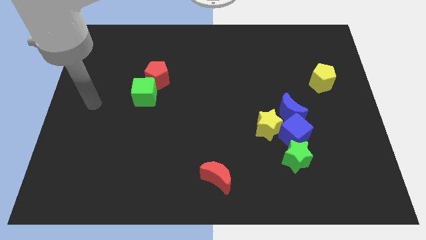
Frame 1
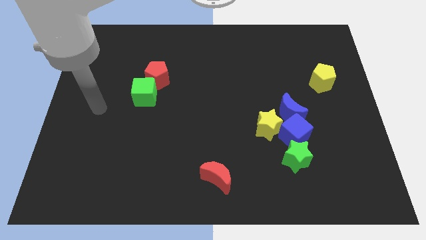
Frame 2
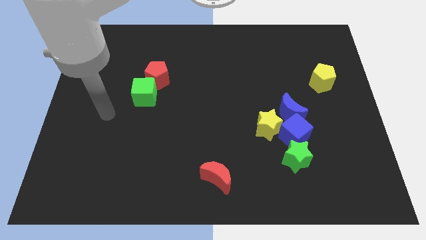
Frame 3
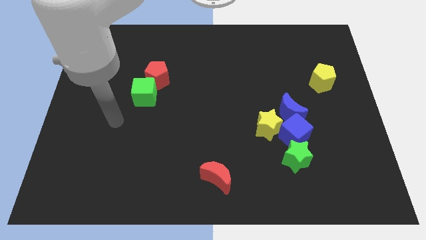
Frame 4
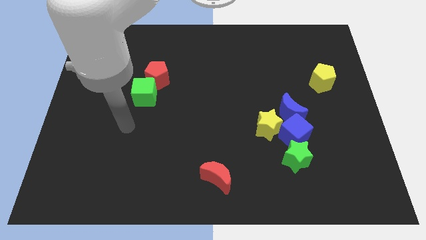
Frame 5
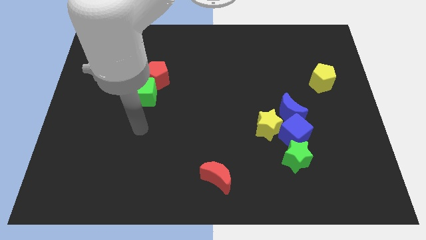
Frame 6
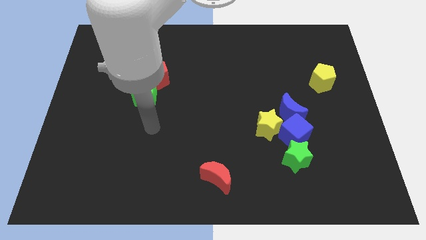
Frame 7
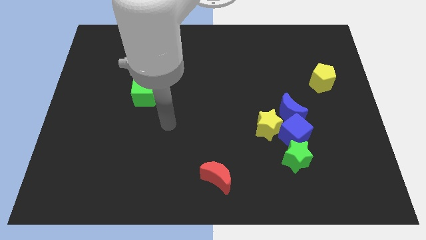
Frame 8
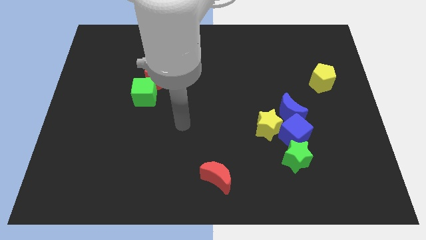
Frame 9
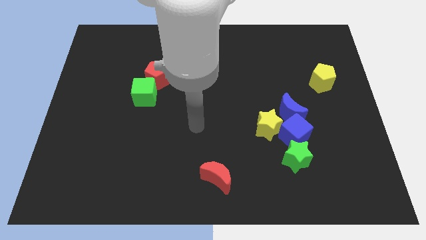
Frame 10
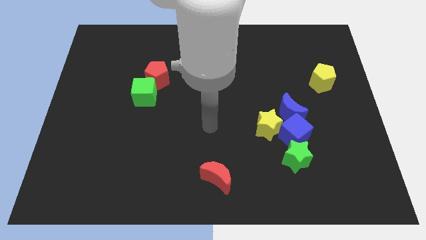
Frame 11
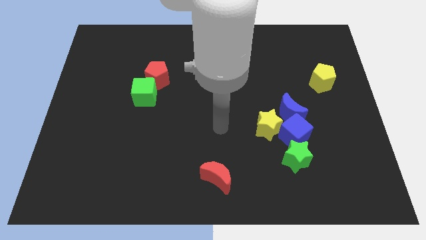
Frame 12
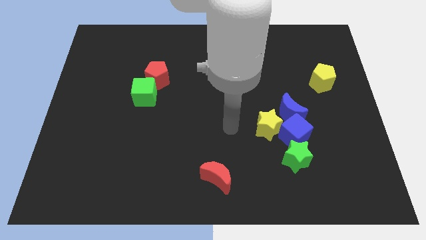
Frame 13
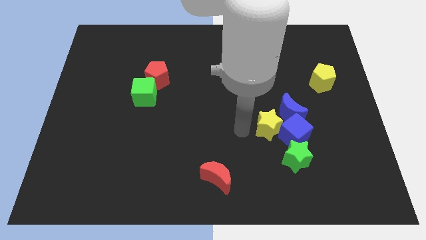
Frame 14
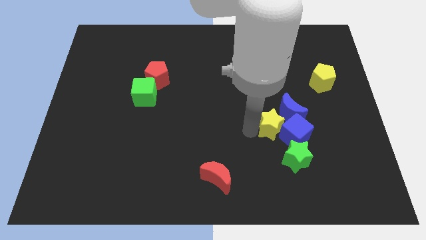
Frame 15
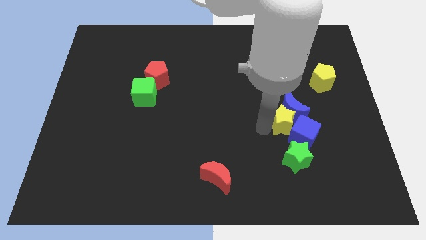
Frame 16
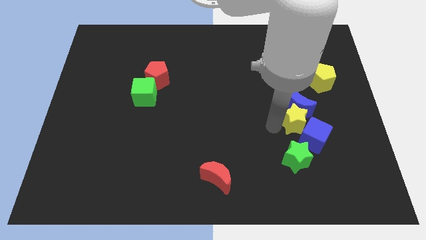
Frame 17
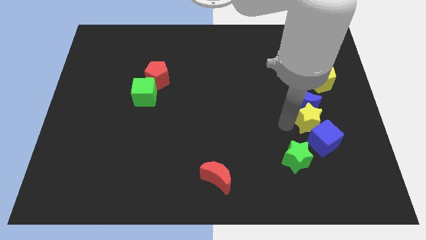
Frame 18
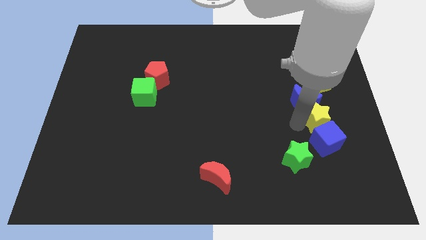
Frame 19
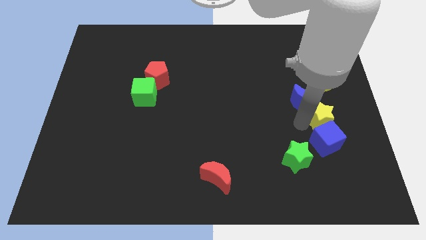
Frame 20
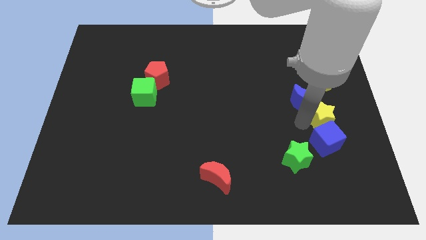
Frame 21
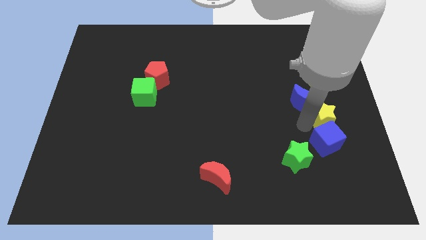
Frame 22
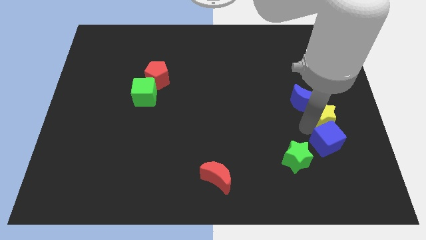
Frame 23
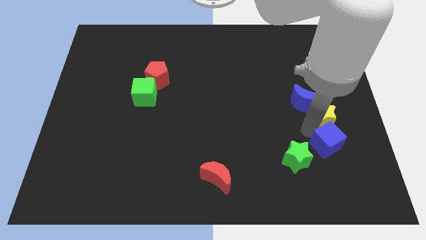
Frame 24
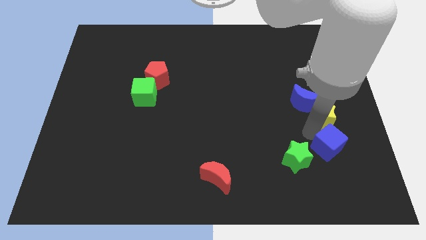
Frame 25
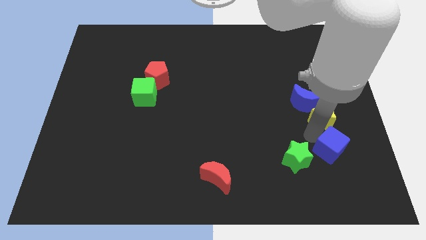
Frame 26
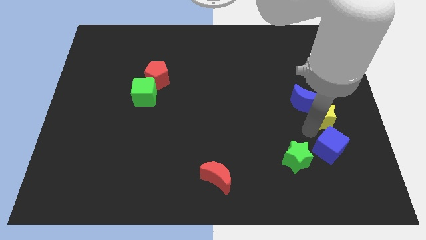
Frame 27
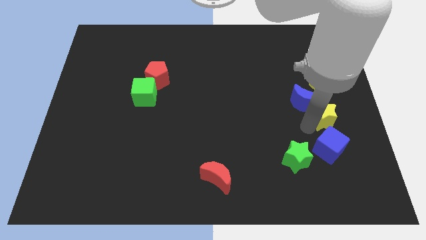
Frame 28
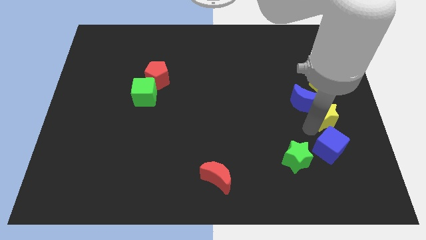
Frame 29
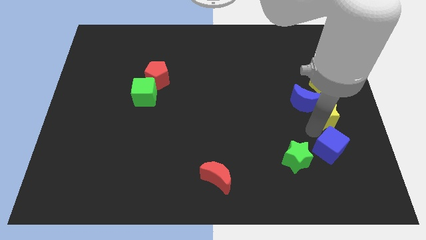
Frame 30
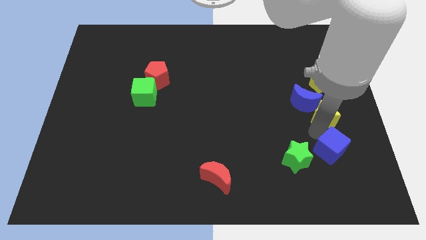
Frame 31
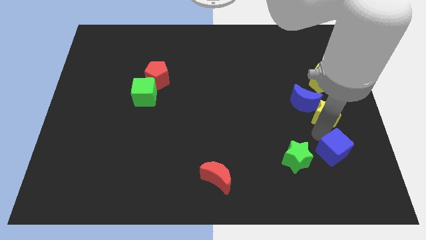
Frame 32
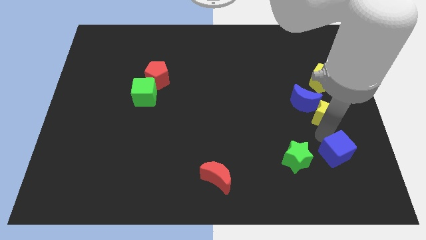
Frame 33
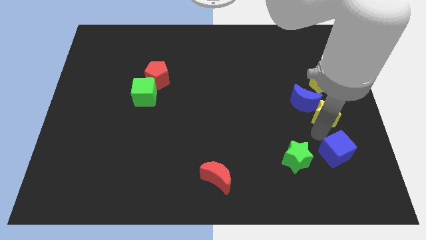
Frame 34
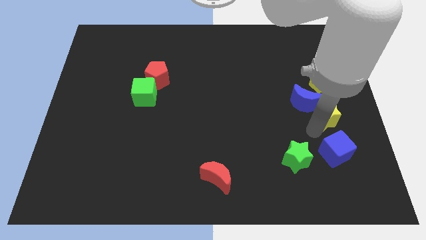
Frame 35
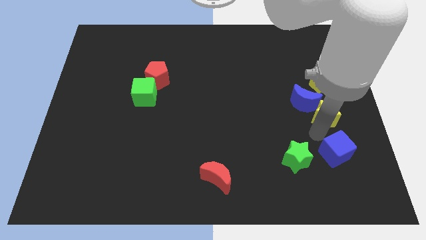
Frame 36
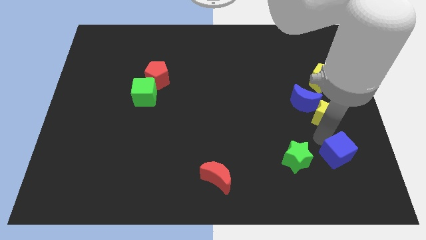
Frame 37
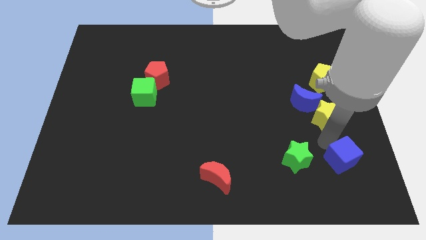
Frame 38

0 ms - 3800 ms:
pull the blue cube apart from the clump

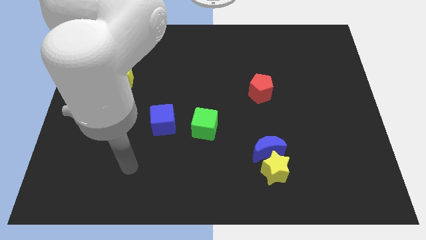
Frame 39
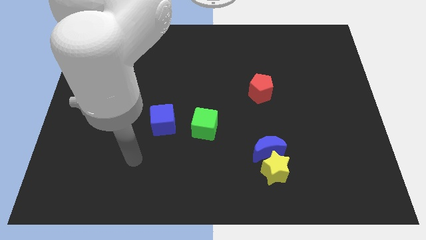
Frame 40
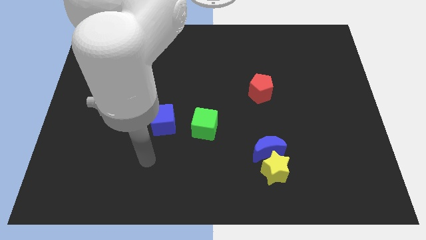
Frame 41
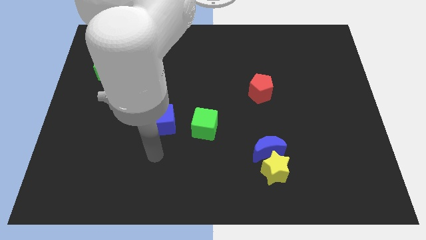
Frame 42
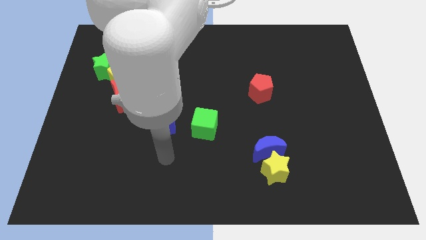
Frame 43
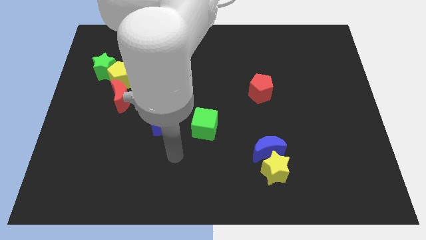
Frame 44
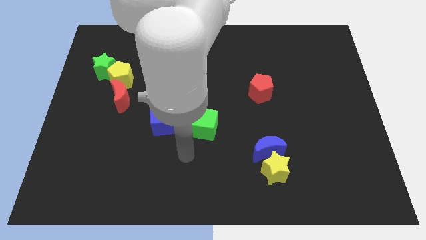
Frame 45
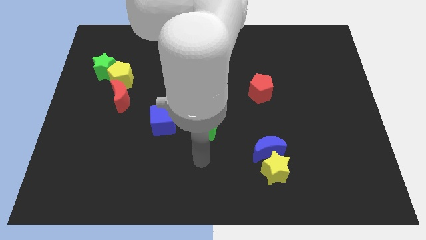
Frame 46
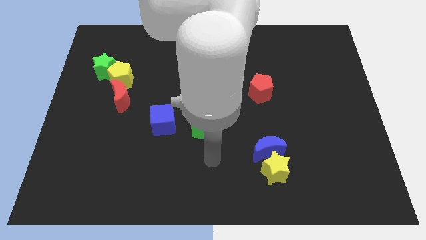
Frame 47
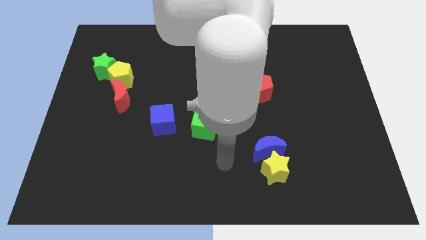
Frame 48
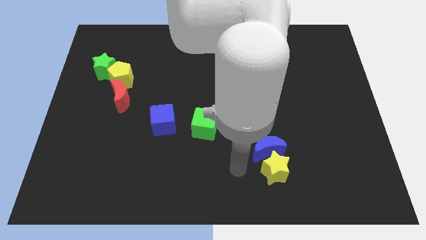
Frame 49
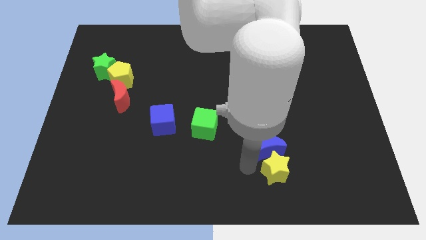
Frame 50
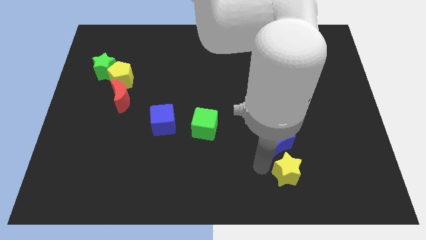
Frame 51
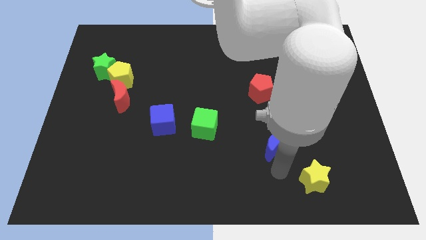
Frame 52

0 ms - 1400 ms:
pull the blue moon apart from the yellow star

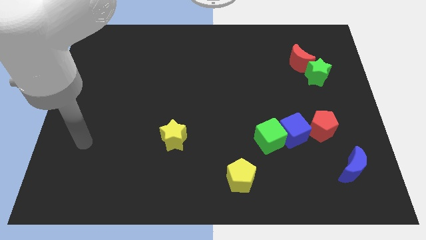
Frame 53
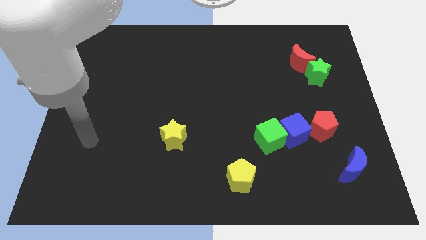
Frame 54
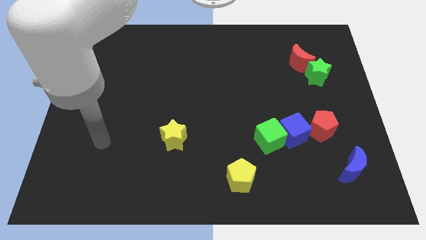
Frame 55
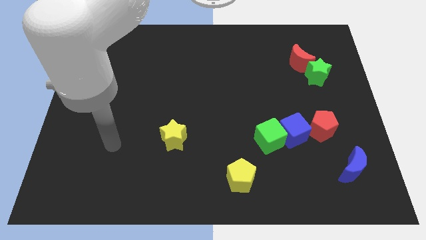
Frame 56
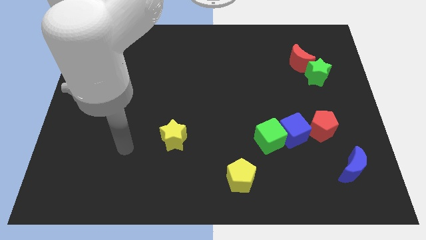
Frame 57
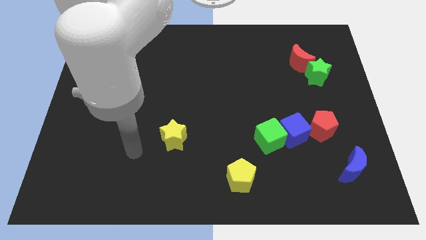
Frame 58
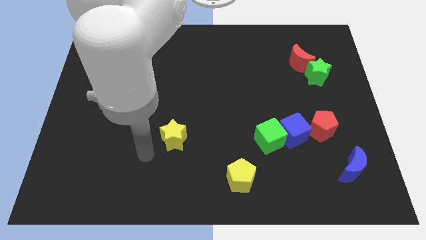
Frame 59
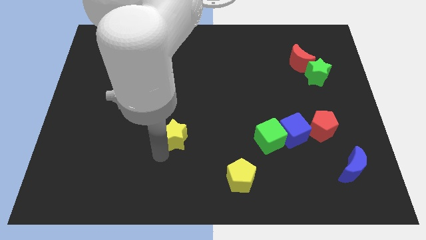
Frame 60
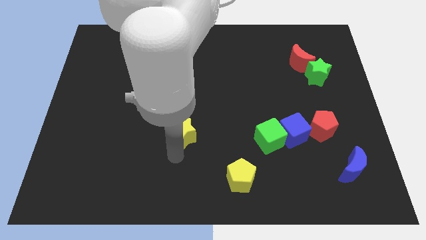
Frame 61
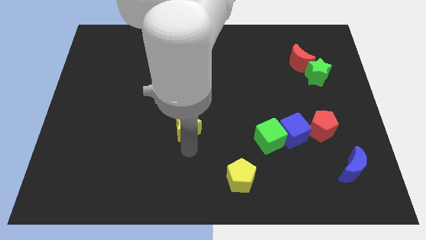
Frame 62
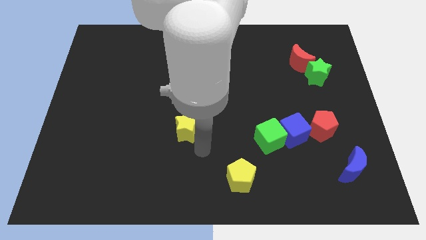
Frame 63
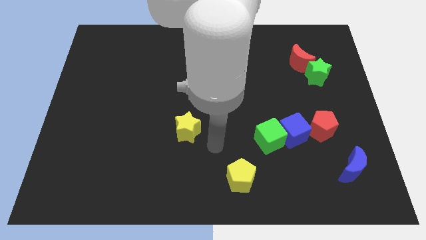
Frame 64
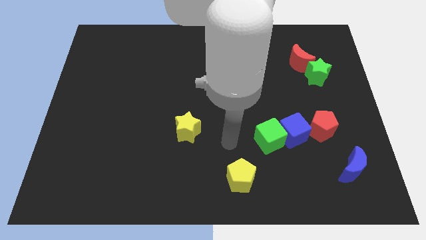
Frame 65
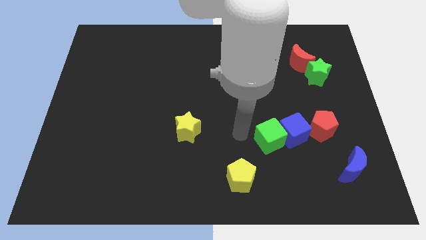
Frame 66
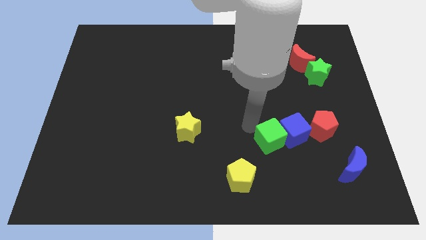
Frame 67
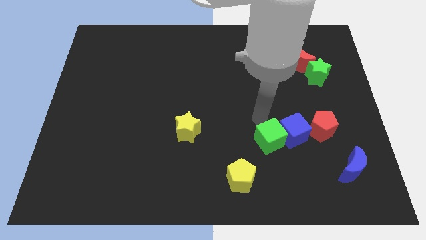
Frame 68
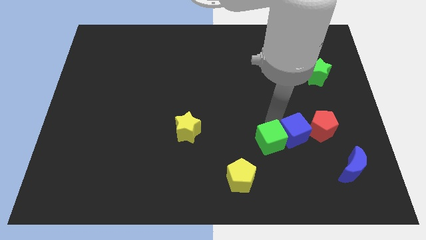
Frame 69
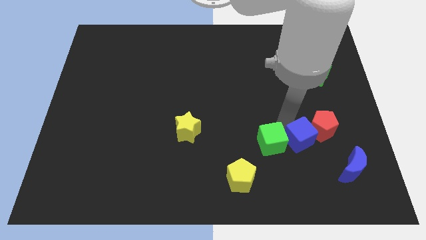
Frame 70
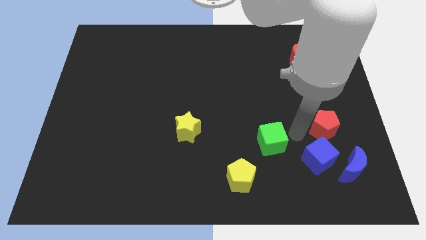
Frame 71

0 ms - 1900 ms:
pull the green cube apart from the blue cube

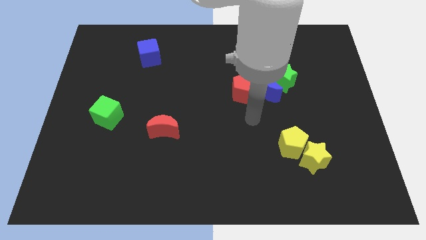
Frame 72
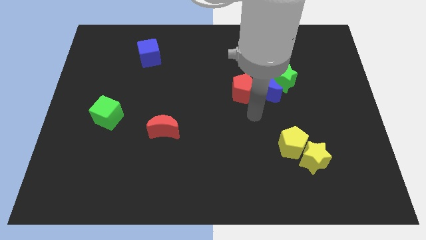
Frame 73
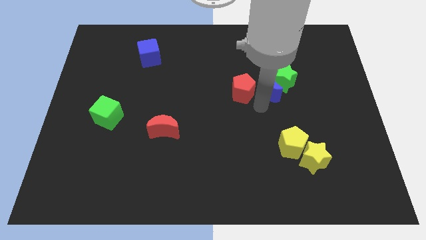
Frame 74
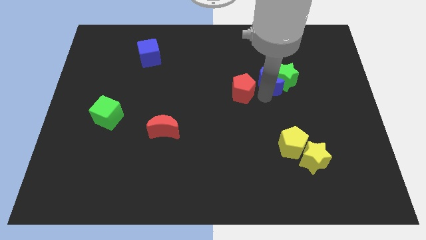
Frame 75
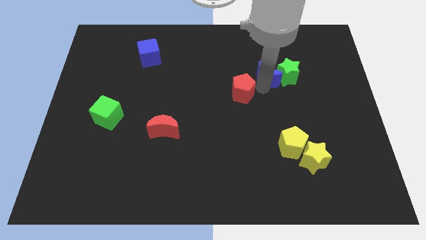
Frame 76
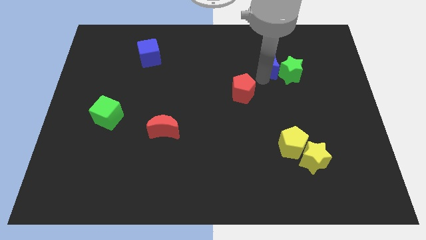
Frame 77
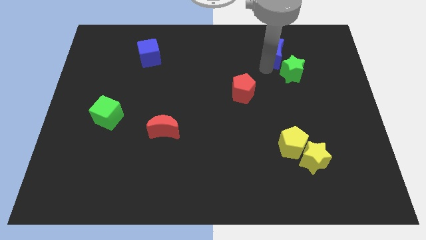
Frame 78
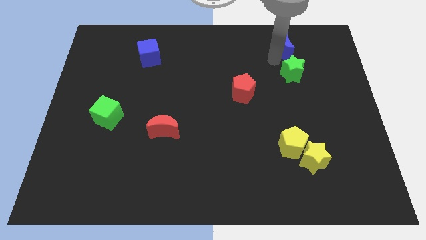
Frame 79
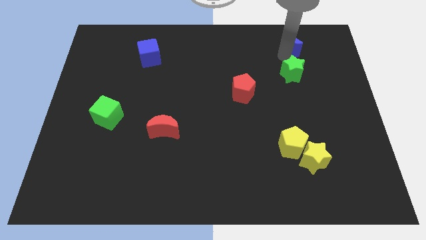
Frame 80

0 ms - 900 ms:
move the green star away from the blue moon

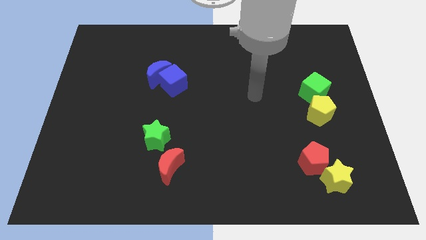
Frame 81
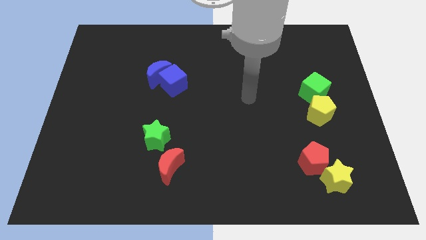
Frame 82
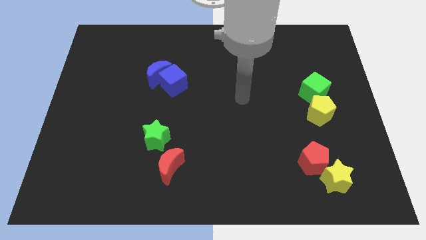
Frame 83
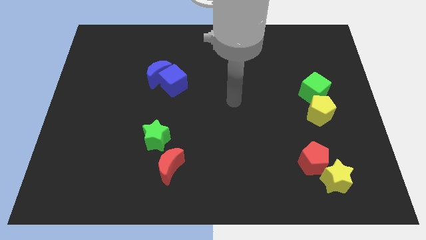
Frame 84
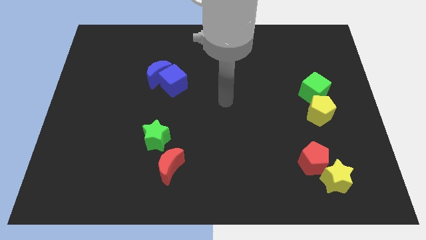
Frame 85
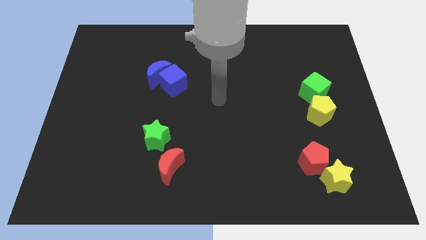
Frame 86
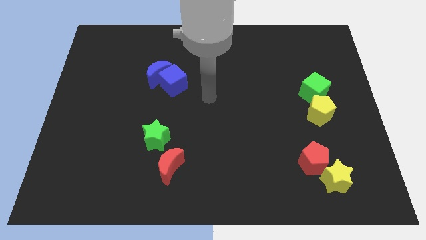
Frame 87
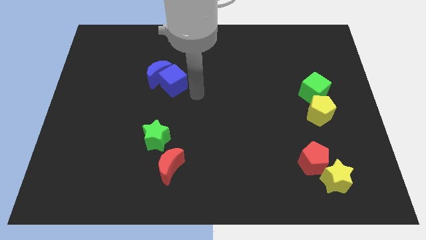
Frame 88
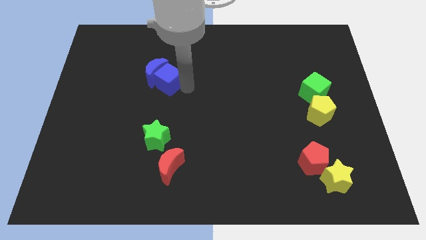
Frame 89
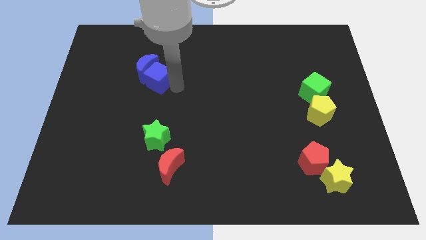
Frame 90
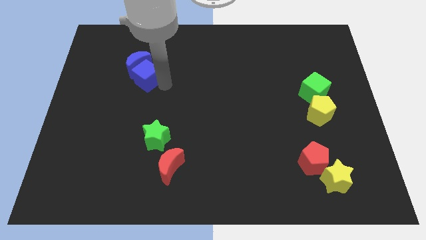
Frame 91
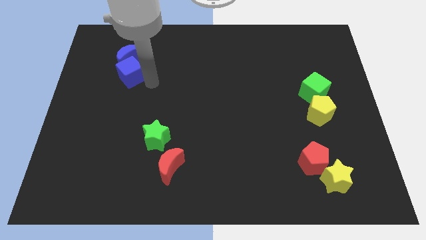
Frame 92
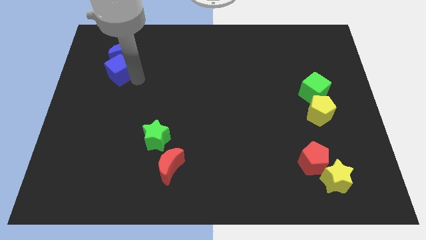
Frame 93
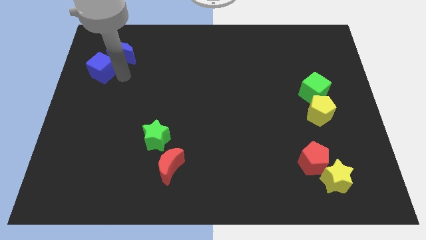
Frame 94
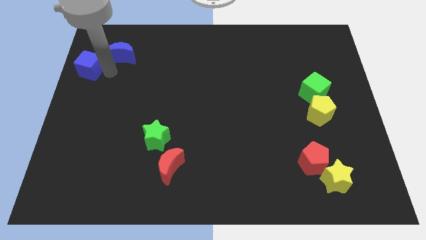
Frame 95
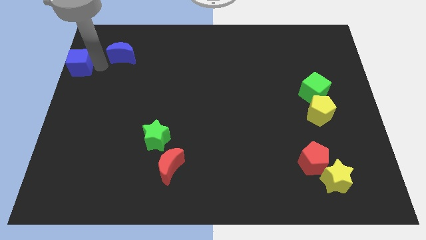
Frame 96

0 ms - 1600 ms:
move the blue moon away from the blue cube
